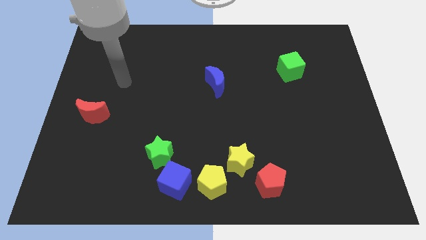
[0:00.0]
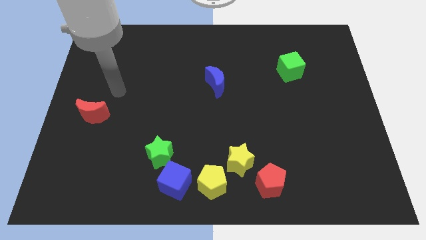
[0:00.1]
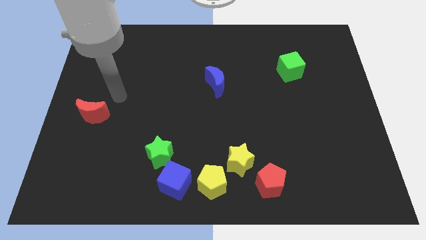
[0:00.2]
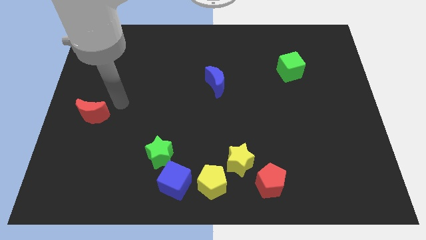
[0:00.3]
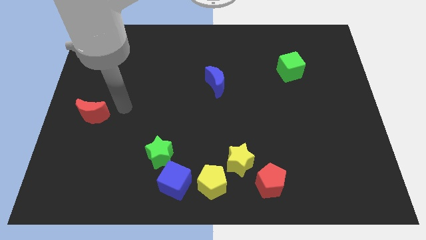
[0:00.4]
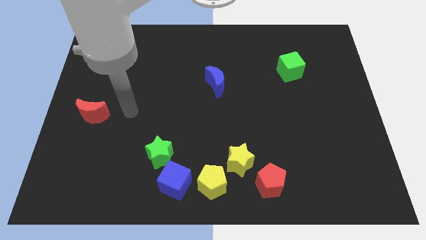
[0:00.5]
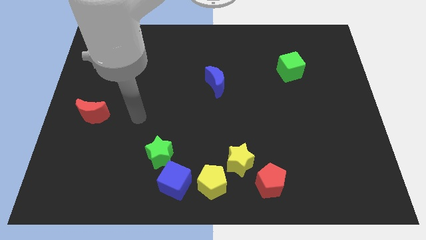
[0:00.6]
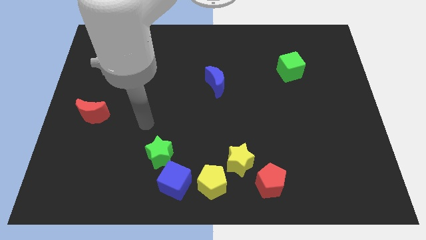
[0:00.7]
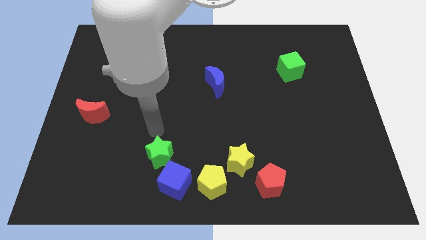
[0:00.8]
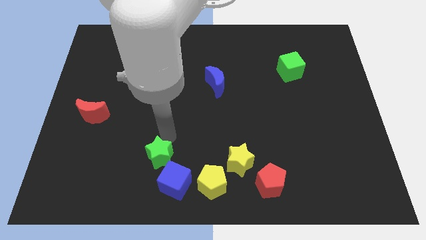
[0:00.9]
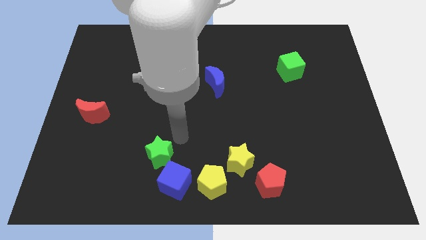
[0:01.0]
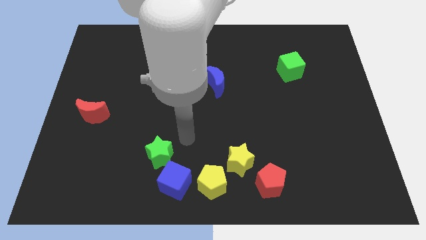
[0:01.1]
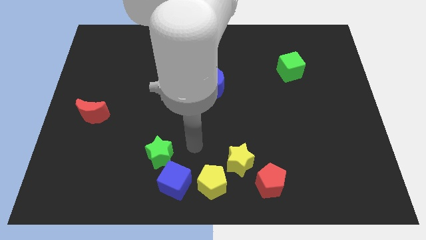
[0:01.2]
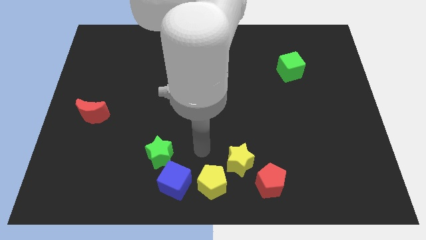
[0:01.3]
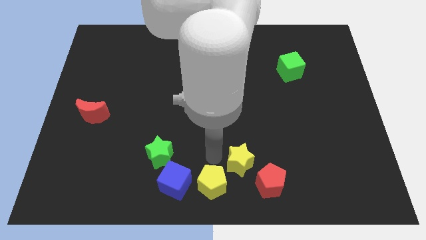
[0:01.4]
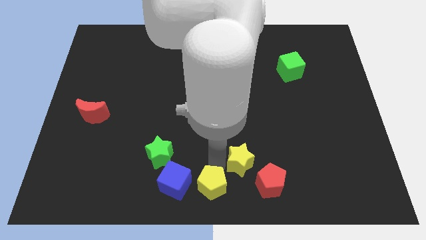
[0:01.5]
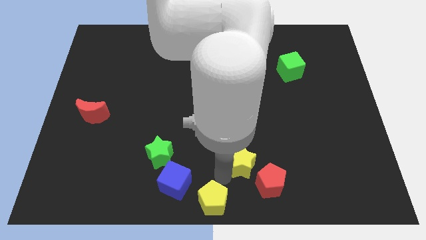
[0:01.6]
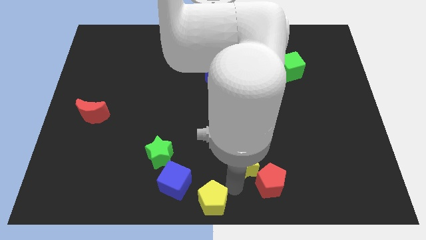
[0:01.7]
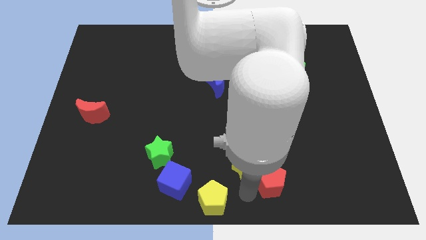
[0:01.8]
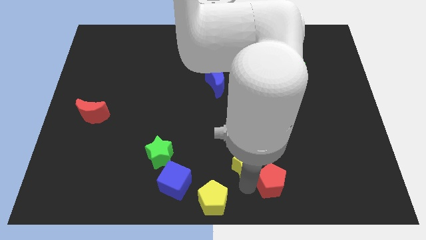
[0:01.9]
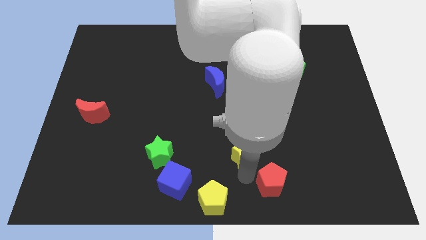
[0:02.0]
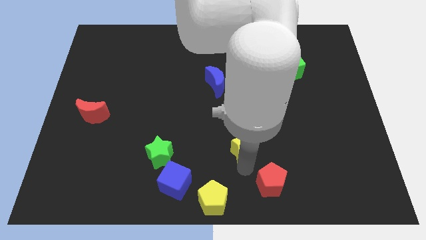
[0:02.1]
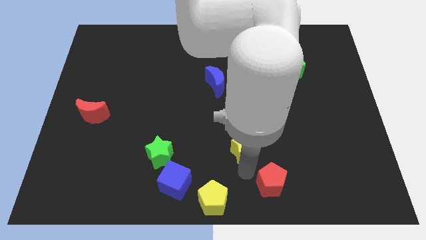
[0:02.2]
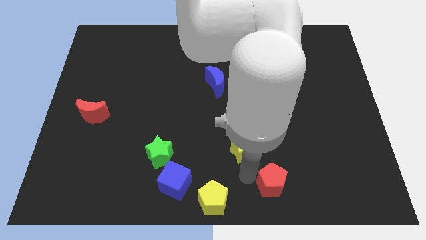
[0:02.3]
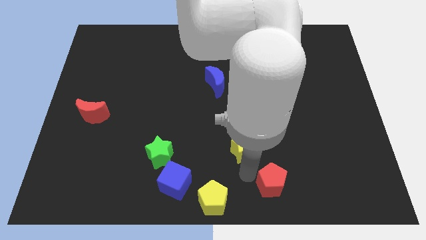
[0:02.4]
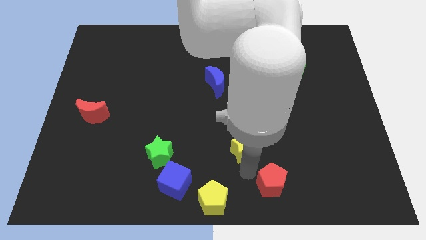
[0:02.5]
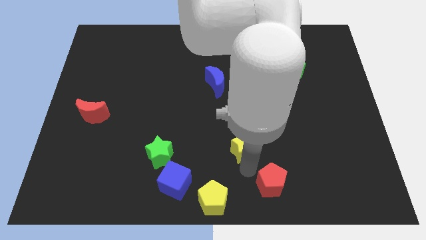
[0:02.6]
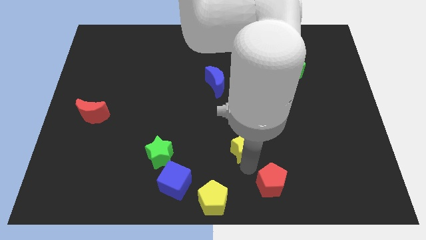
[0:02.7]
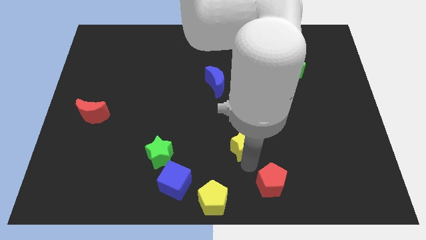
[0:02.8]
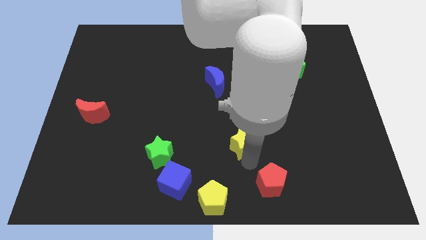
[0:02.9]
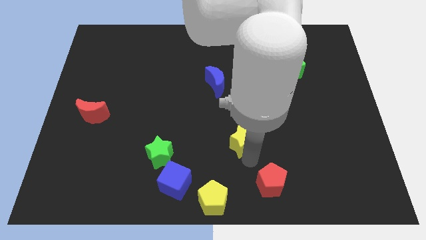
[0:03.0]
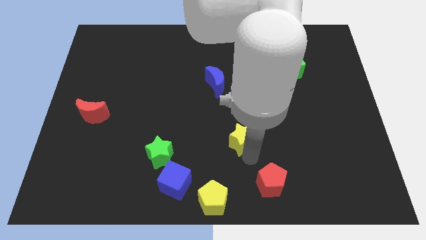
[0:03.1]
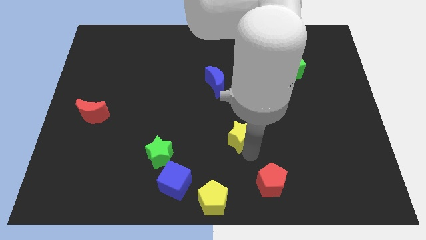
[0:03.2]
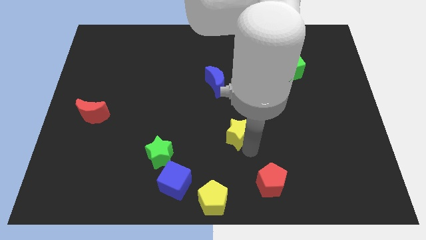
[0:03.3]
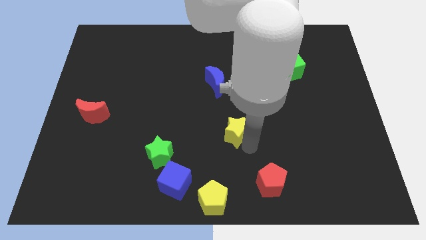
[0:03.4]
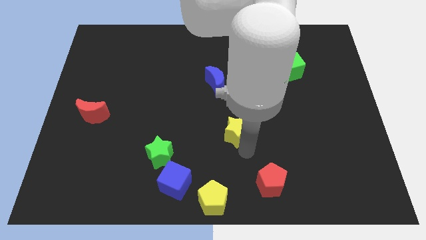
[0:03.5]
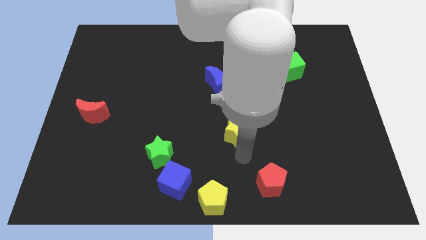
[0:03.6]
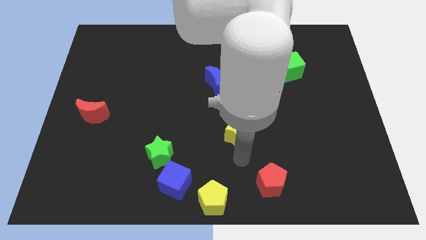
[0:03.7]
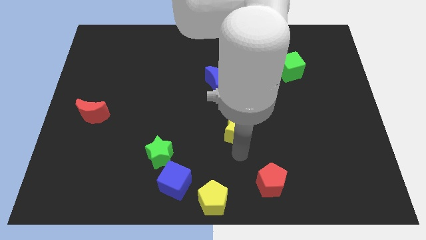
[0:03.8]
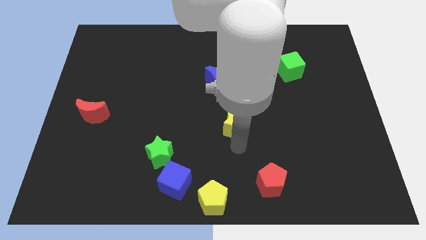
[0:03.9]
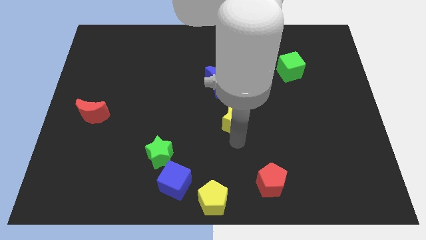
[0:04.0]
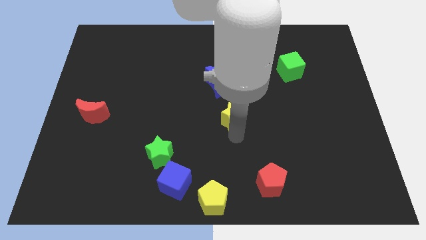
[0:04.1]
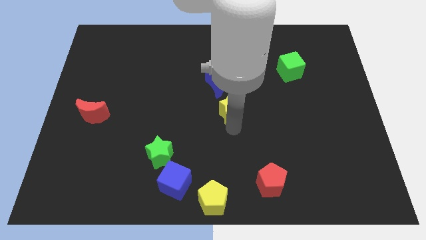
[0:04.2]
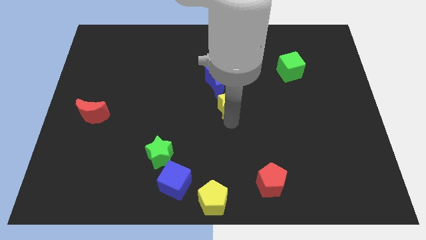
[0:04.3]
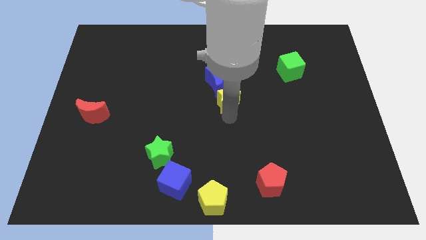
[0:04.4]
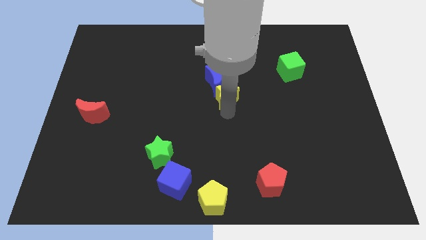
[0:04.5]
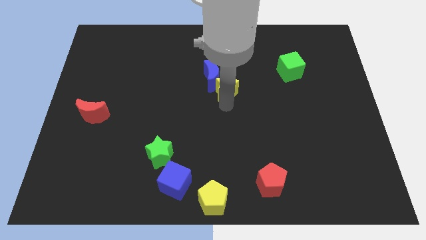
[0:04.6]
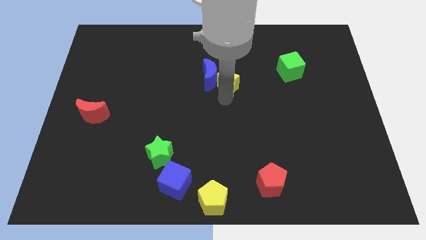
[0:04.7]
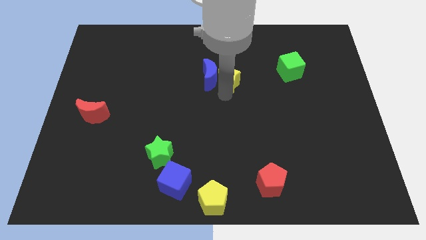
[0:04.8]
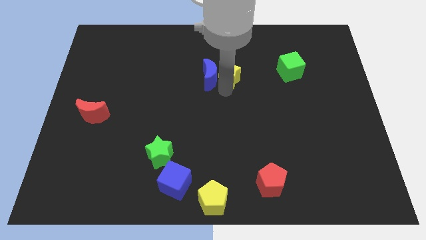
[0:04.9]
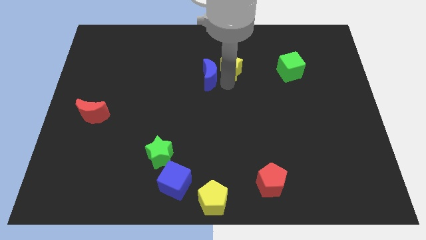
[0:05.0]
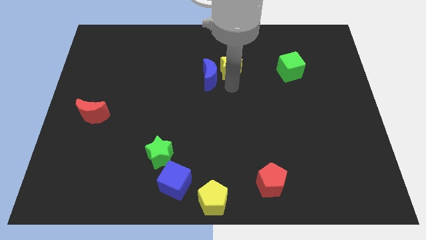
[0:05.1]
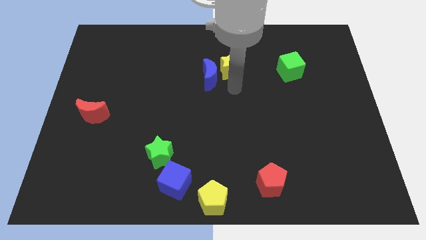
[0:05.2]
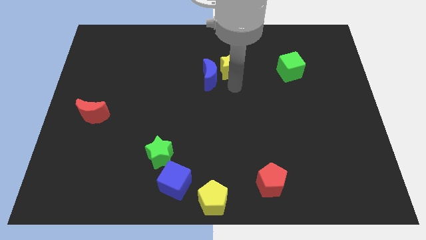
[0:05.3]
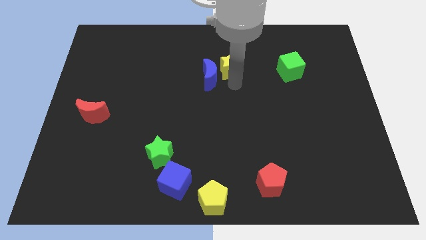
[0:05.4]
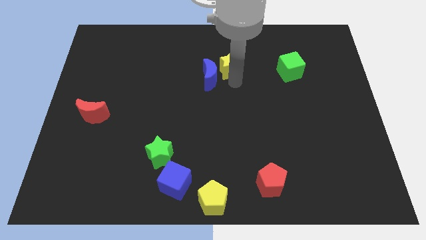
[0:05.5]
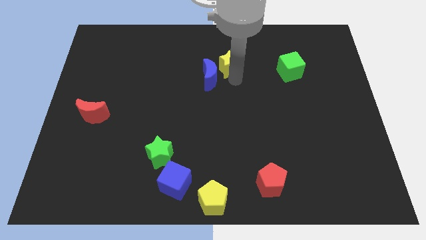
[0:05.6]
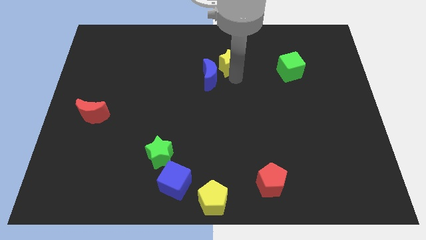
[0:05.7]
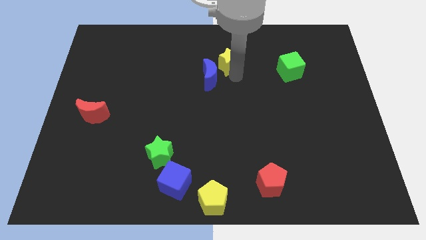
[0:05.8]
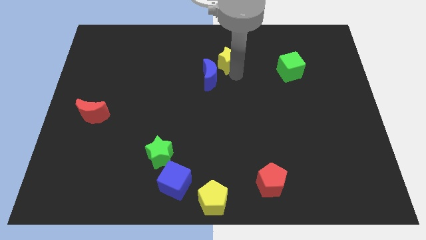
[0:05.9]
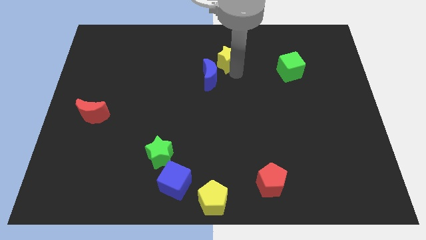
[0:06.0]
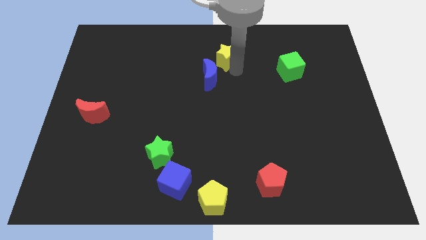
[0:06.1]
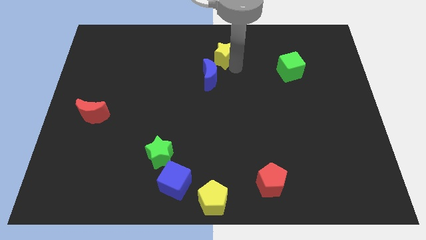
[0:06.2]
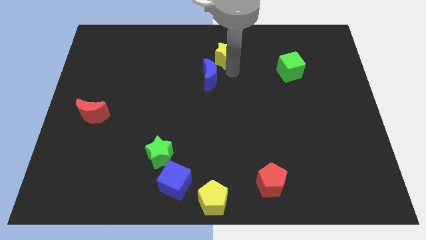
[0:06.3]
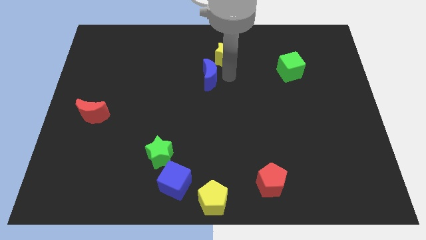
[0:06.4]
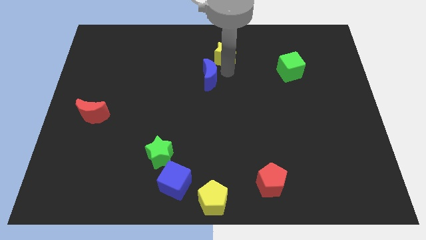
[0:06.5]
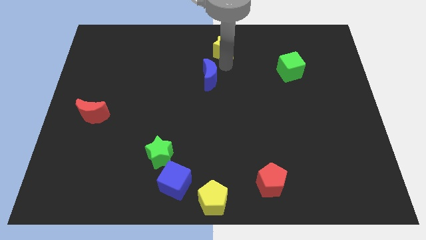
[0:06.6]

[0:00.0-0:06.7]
put the yellow star to the top side

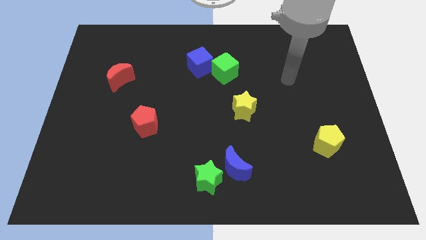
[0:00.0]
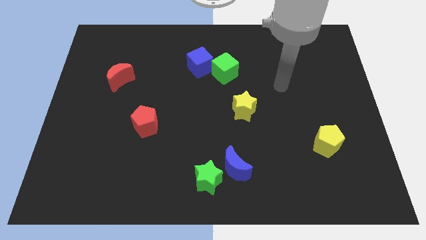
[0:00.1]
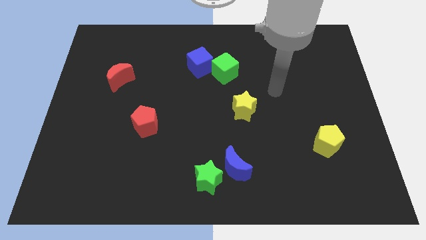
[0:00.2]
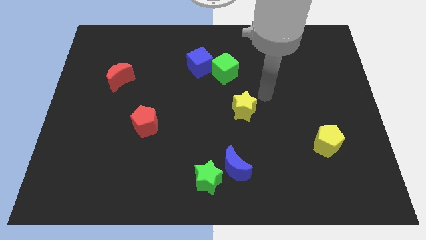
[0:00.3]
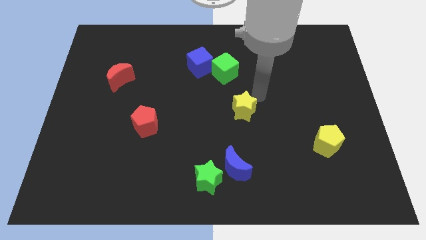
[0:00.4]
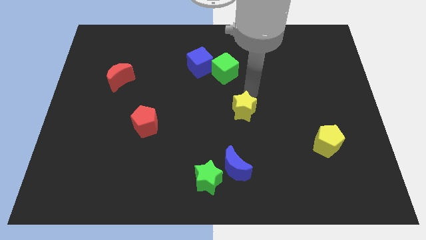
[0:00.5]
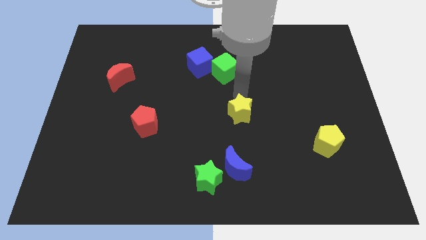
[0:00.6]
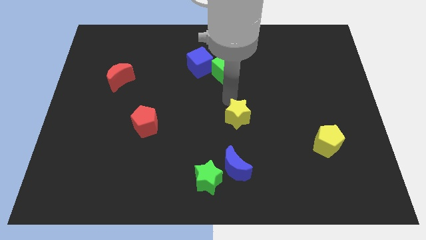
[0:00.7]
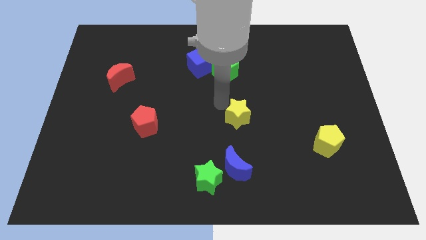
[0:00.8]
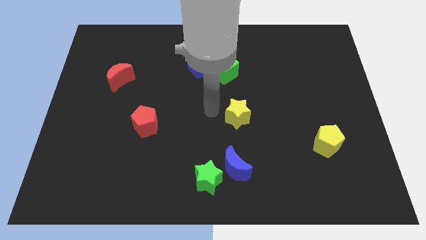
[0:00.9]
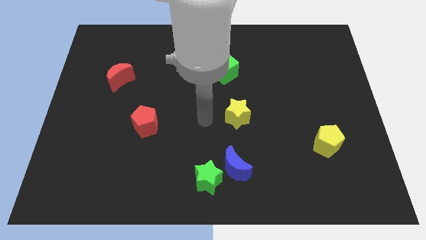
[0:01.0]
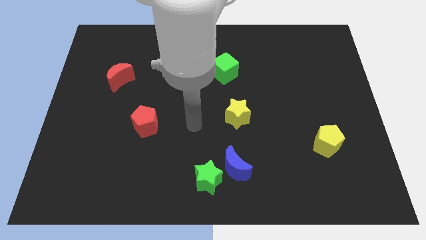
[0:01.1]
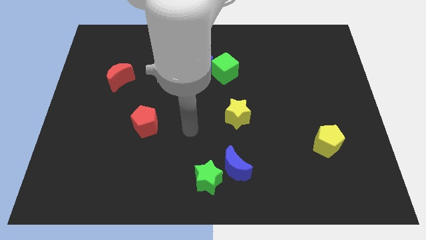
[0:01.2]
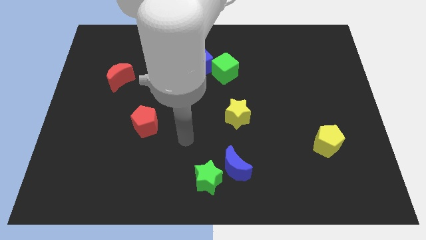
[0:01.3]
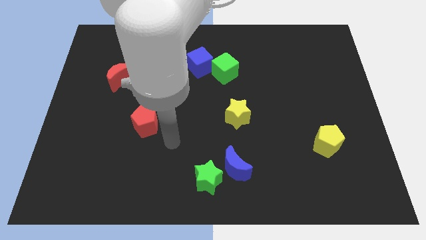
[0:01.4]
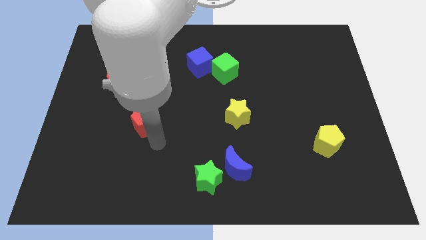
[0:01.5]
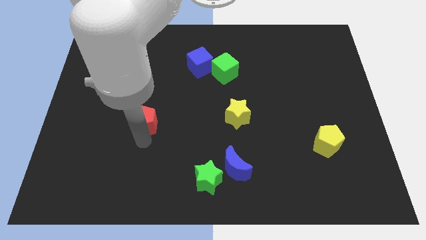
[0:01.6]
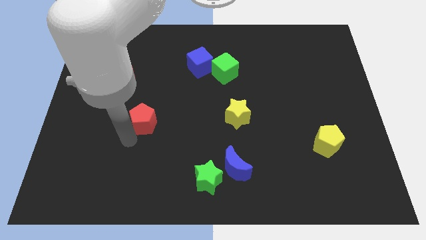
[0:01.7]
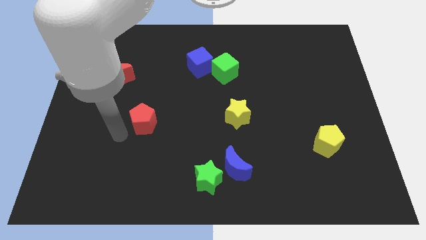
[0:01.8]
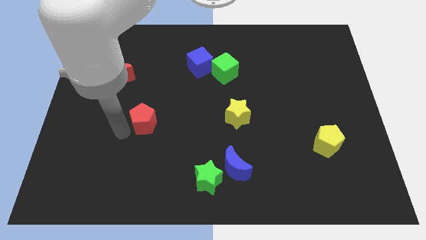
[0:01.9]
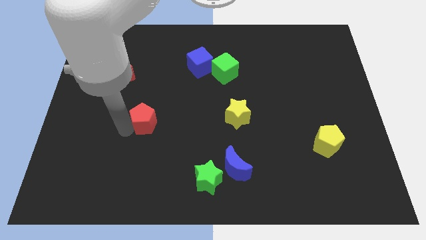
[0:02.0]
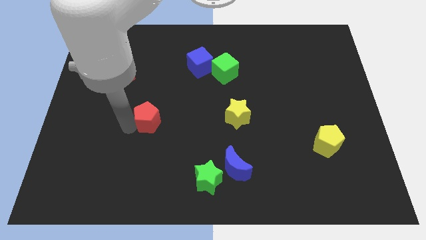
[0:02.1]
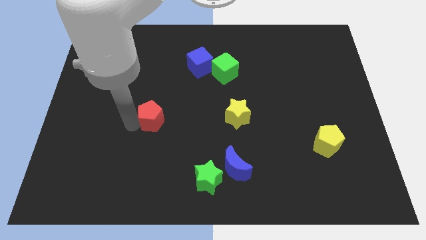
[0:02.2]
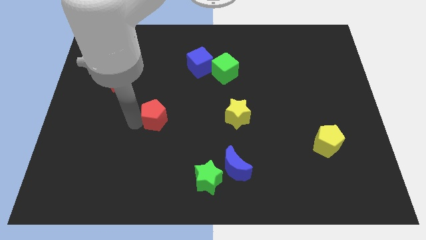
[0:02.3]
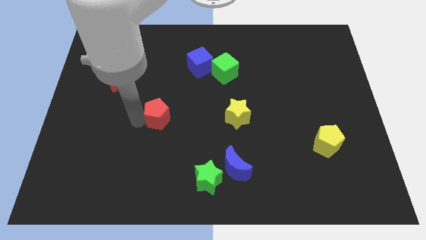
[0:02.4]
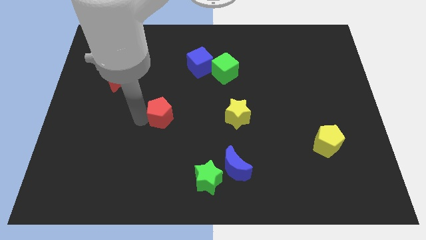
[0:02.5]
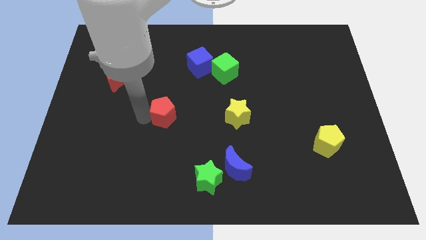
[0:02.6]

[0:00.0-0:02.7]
put the red pentagon to the center of the board
